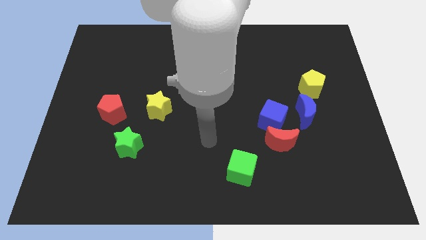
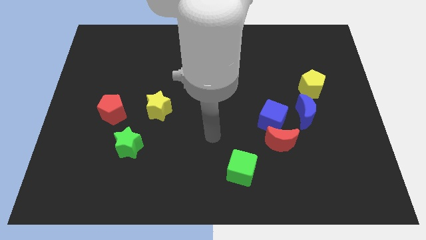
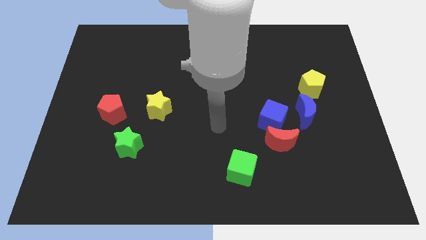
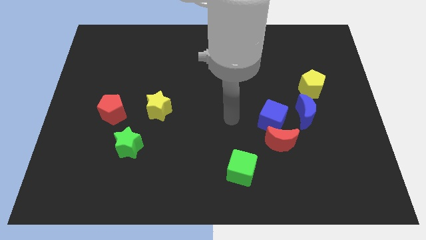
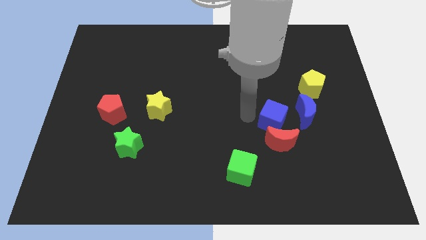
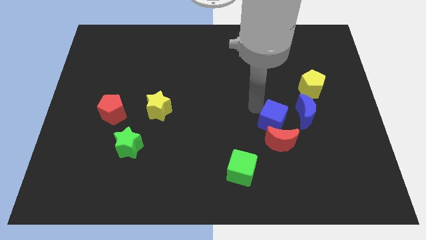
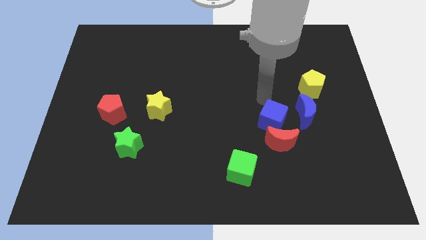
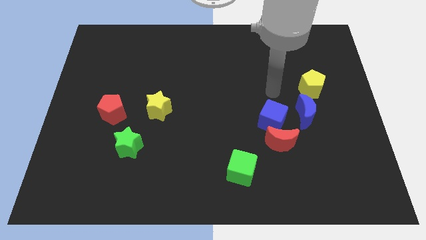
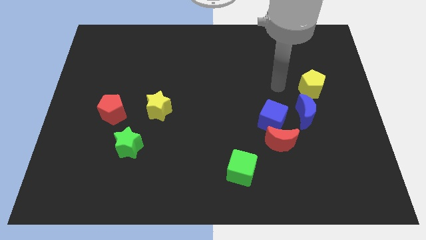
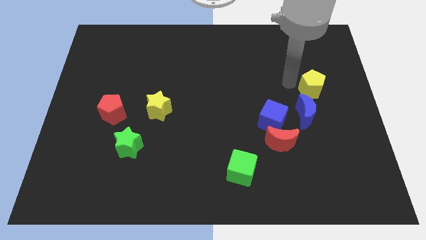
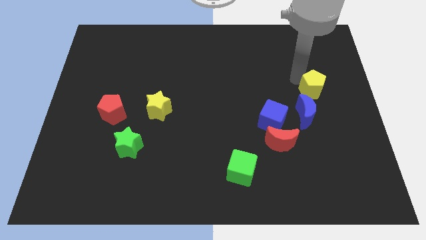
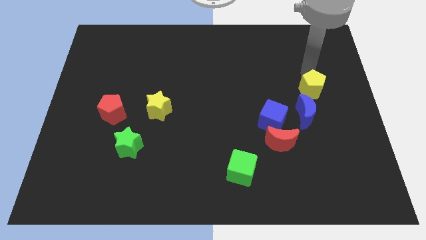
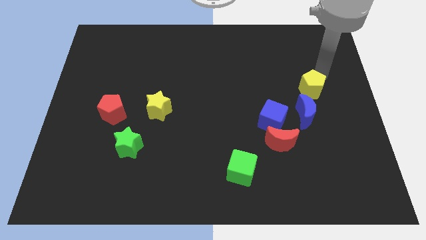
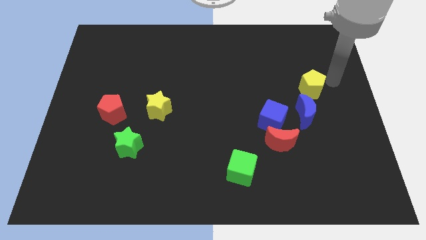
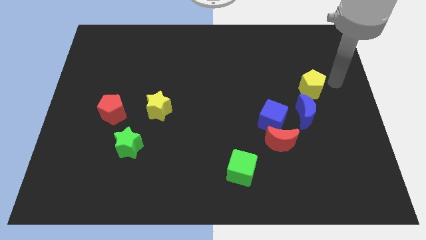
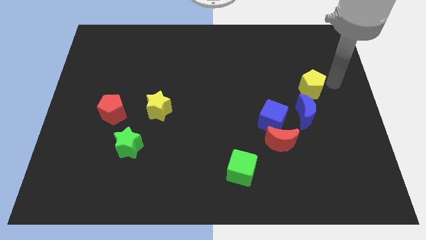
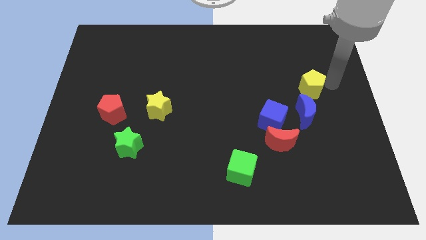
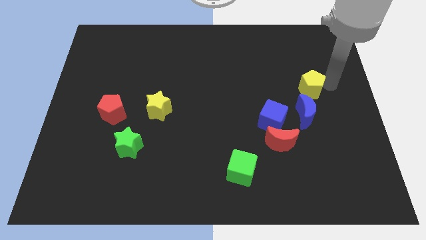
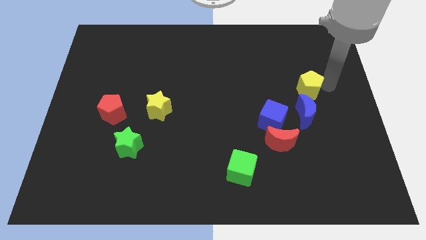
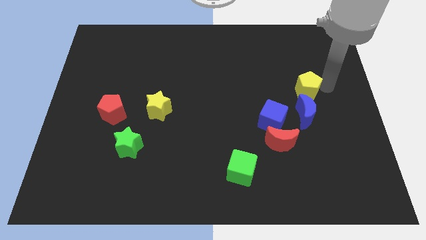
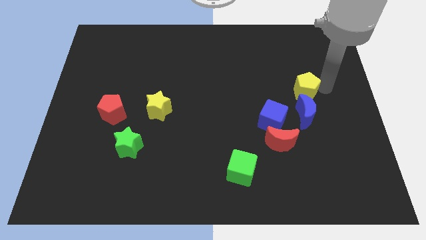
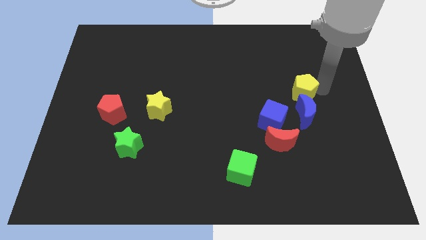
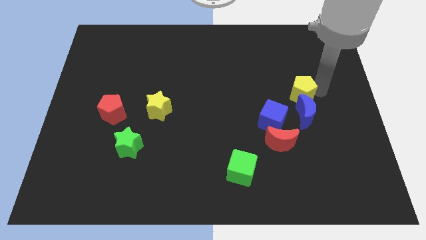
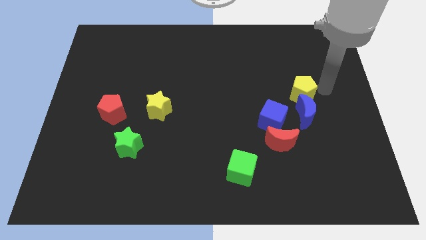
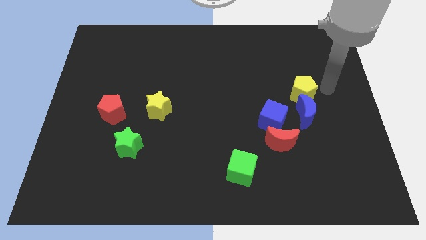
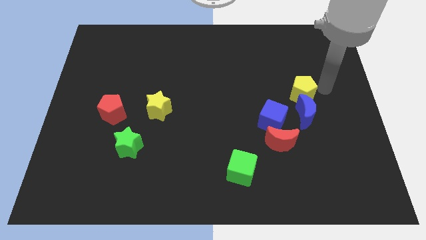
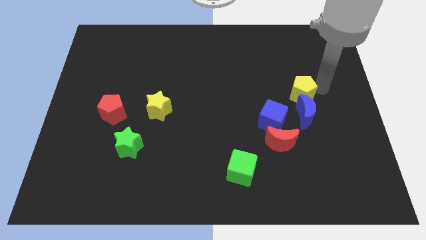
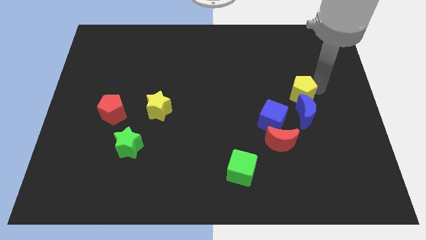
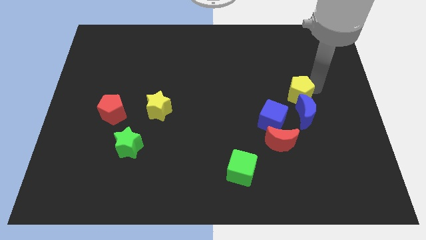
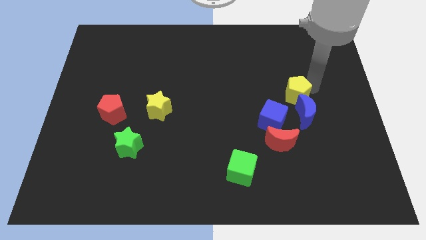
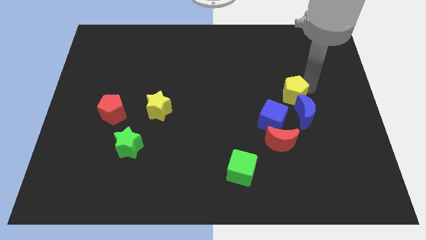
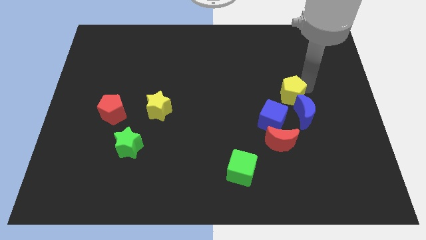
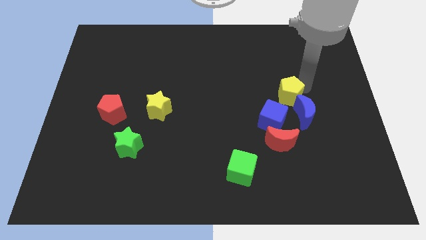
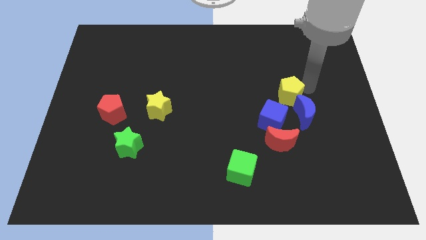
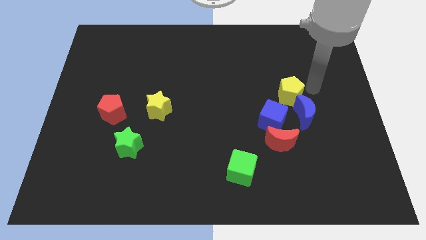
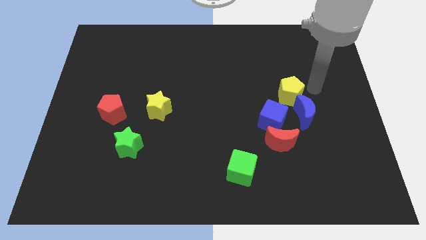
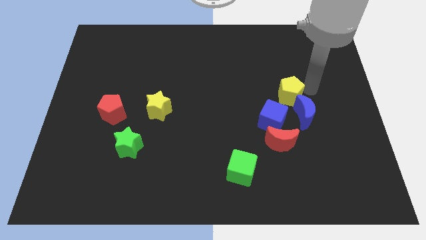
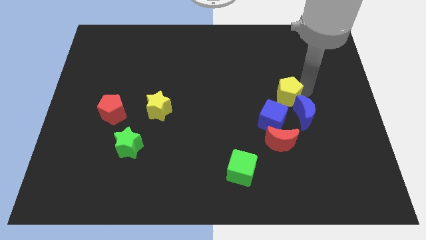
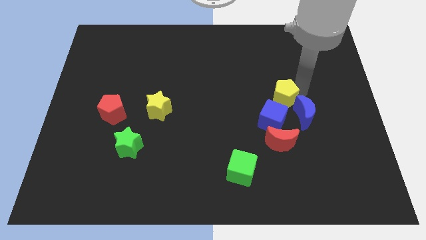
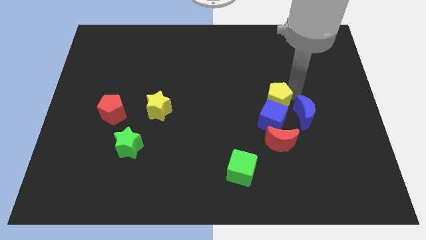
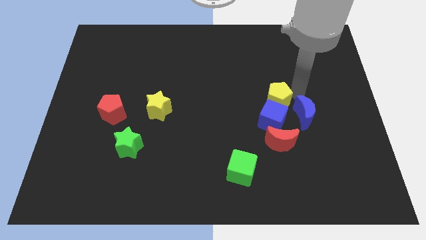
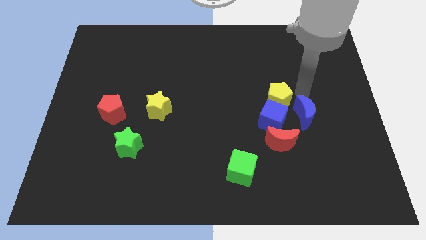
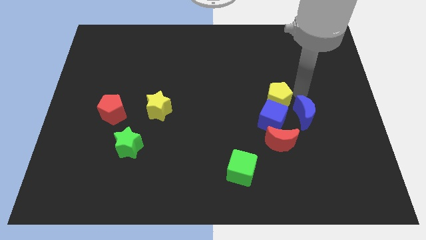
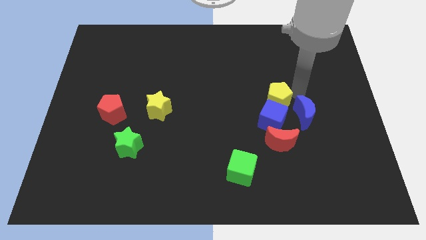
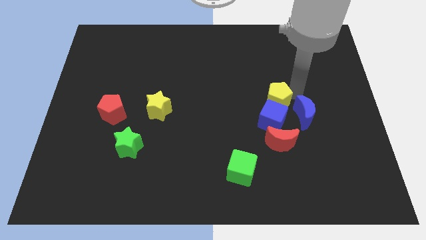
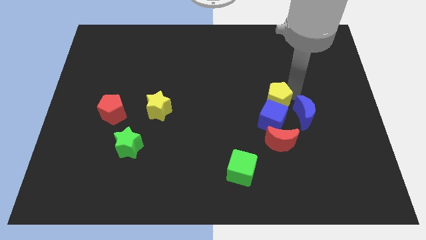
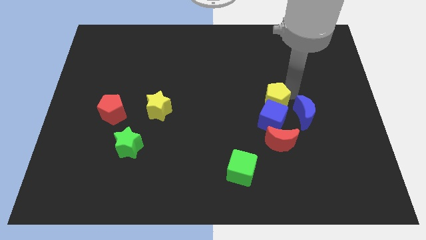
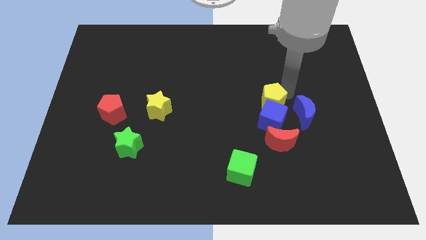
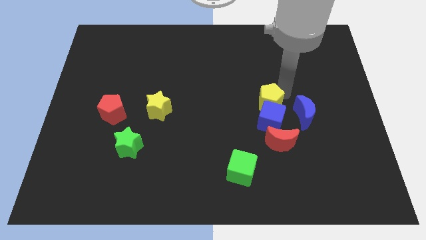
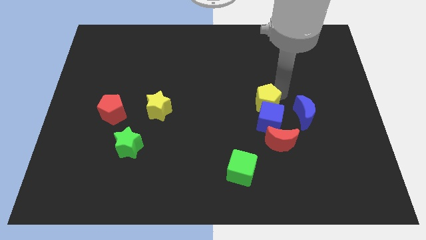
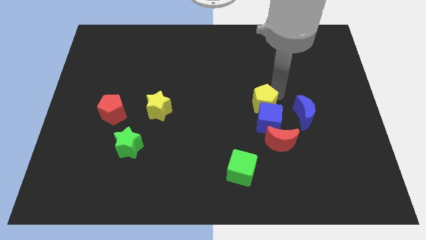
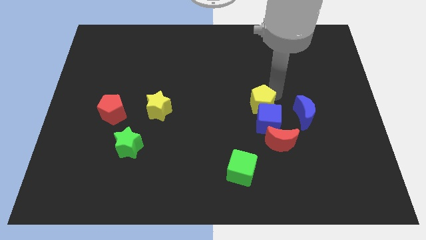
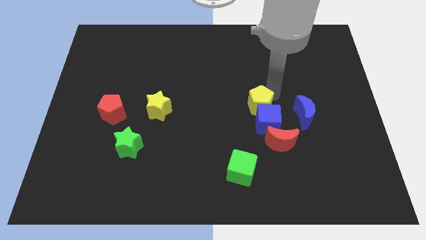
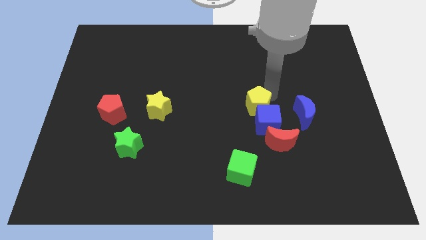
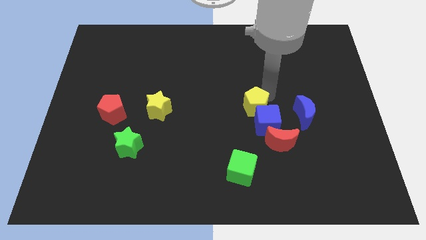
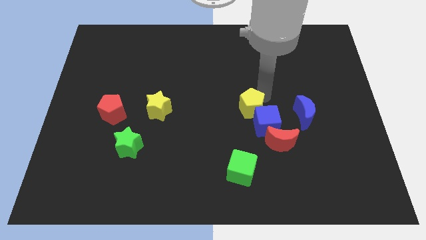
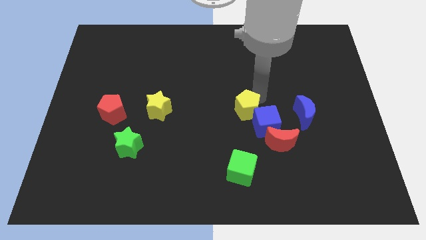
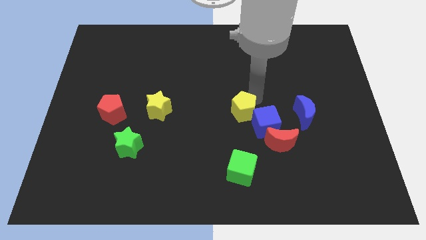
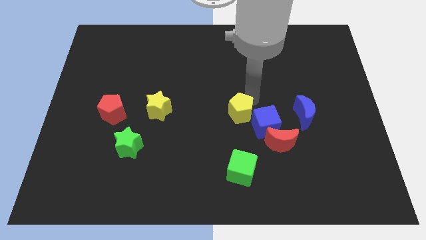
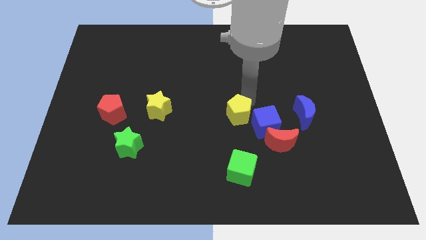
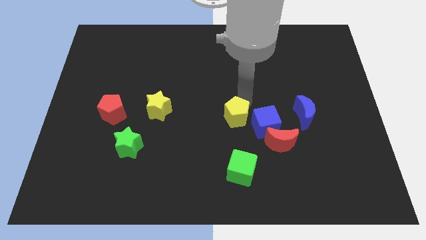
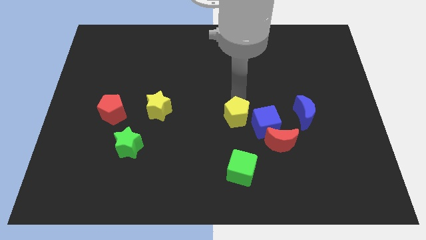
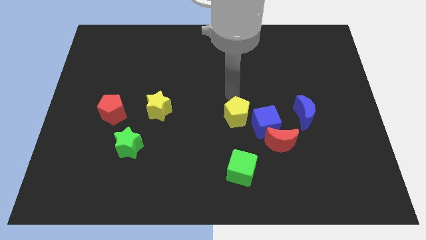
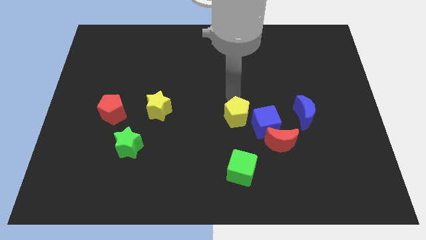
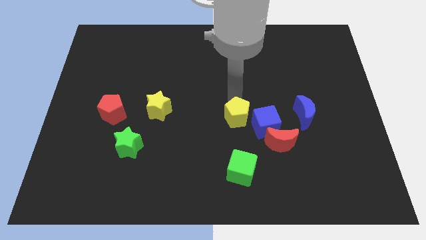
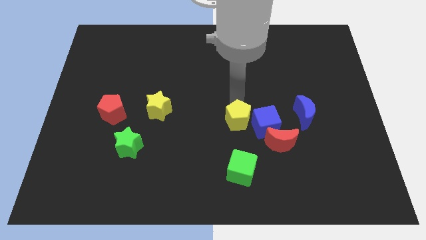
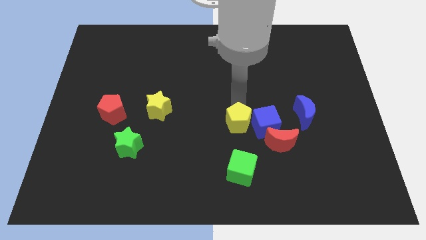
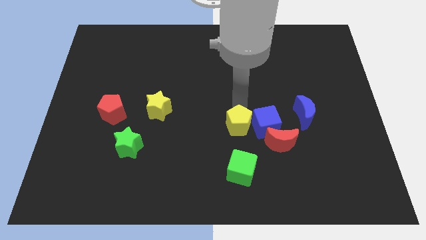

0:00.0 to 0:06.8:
push the yellow pentagon to the bottom left of the blue cube

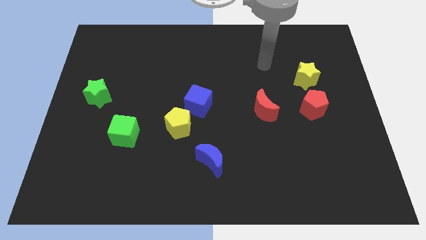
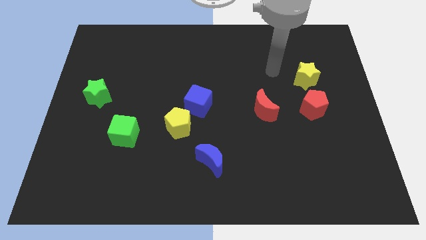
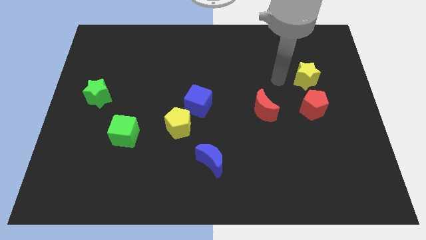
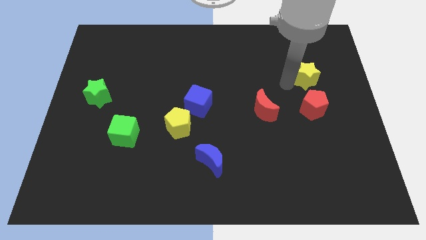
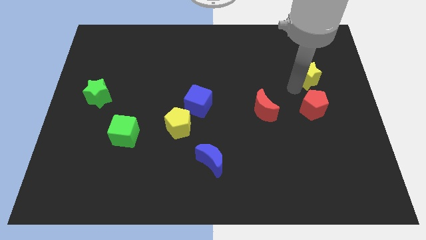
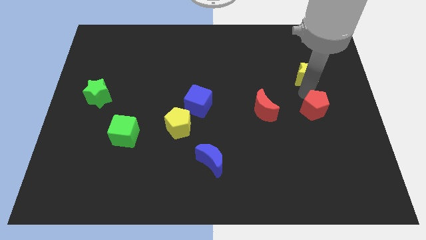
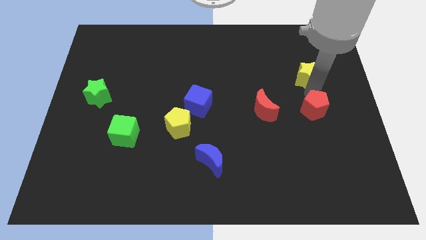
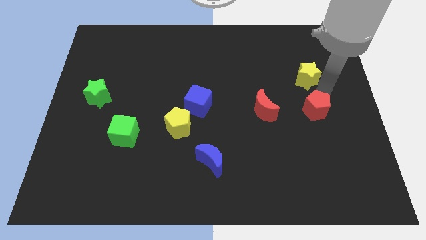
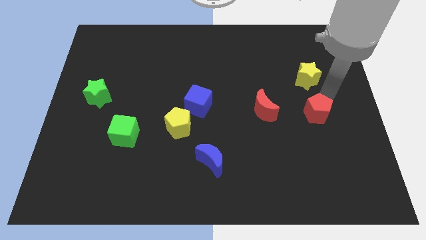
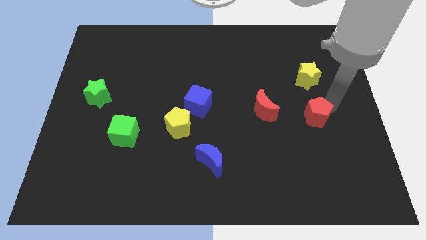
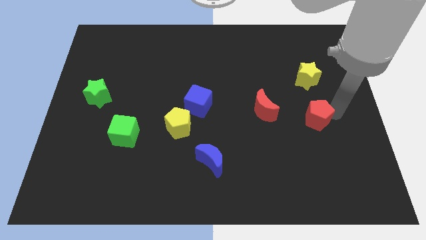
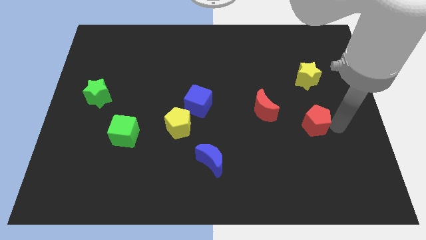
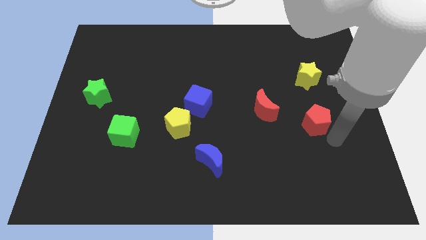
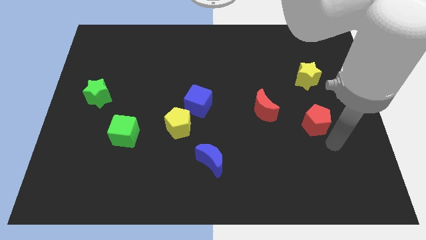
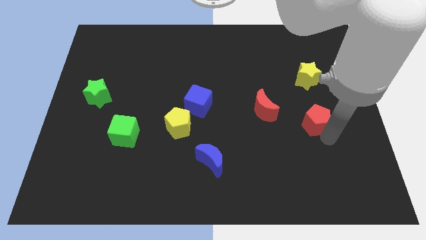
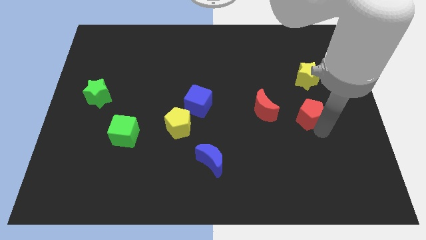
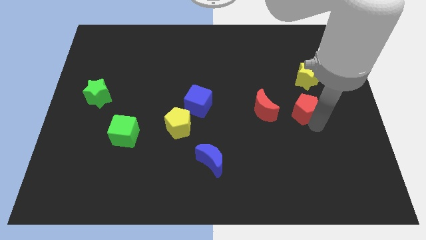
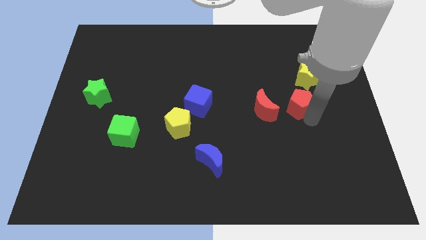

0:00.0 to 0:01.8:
push the red pentagon to the bottom left side of the yellow star
